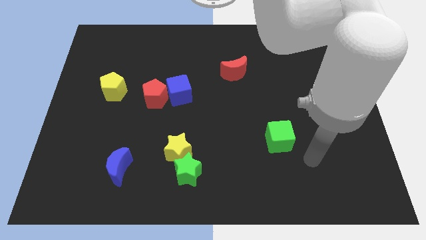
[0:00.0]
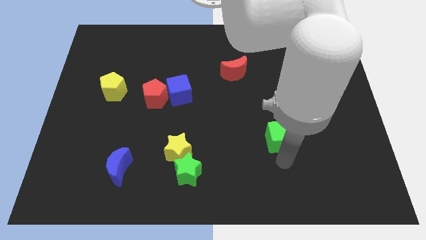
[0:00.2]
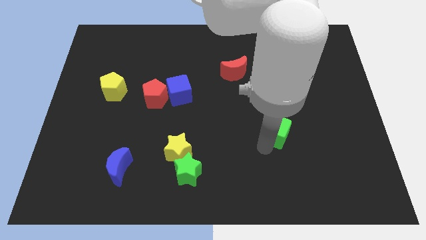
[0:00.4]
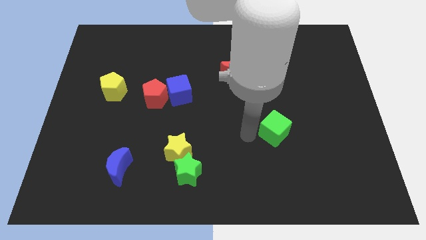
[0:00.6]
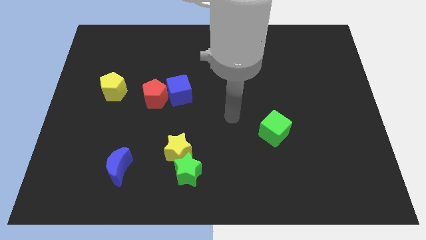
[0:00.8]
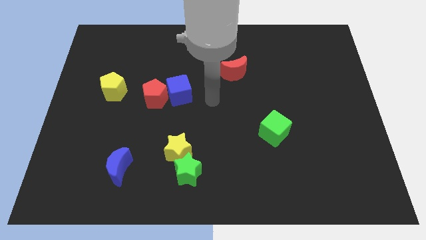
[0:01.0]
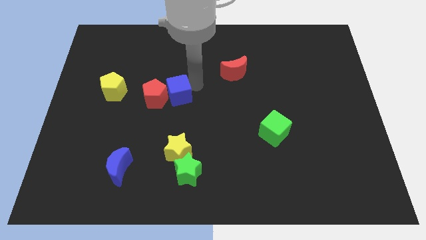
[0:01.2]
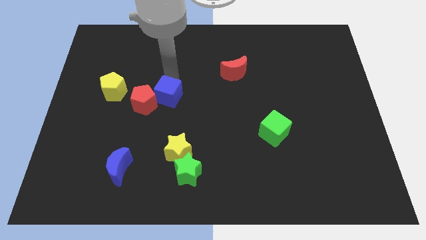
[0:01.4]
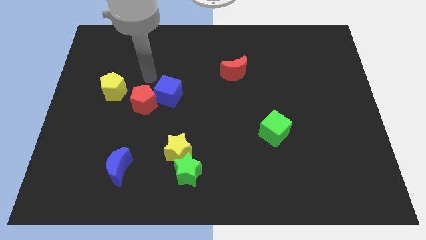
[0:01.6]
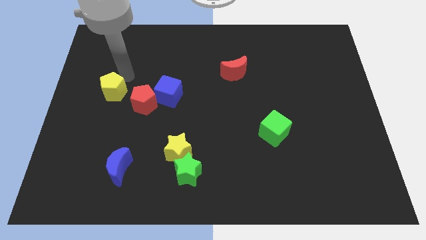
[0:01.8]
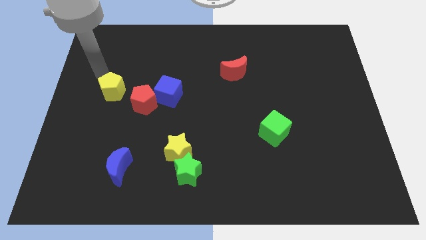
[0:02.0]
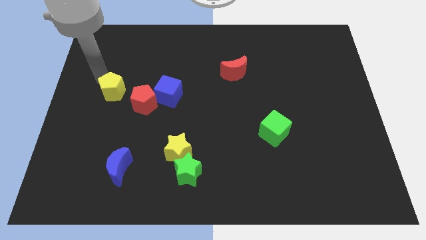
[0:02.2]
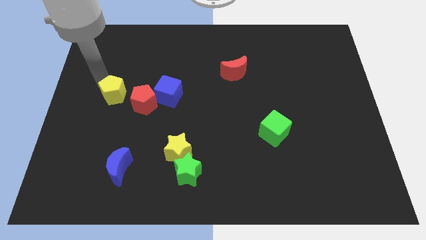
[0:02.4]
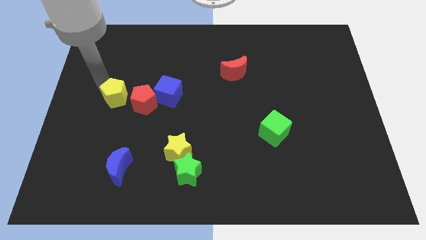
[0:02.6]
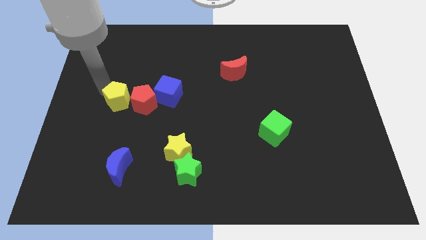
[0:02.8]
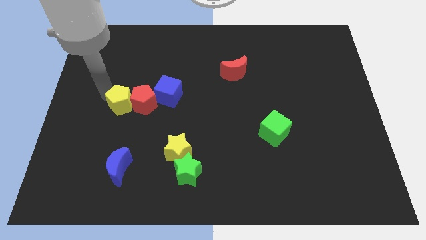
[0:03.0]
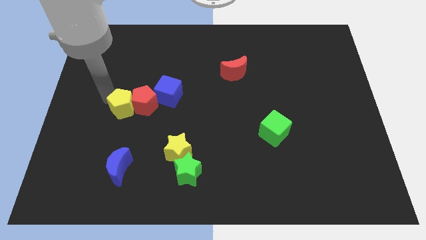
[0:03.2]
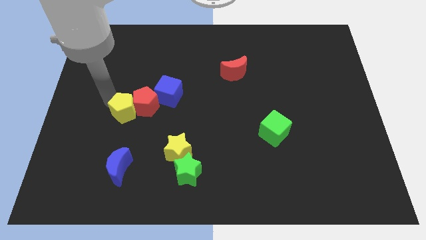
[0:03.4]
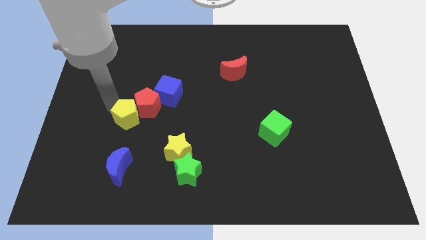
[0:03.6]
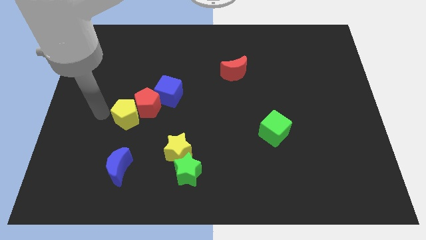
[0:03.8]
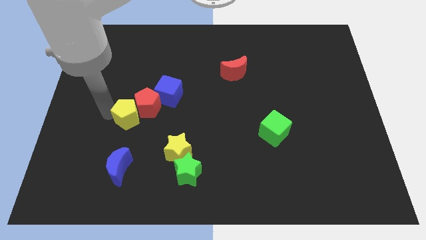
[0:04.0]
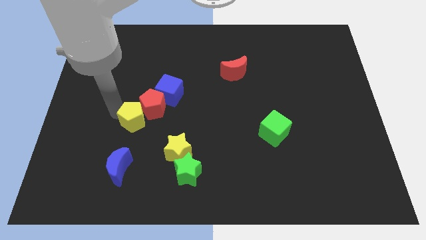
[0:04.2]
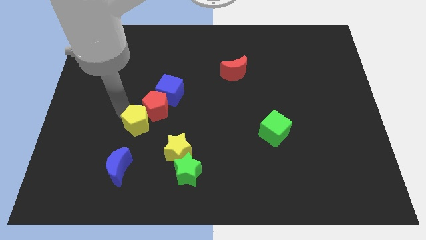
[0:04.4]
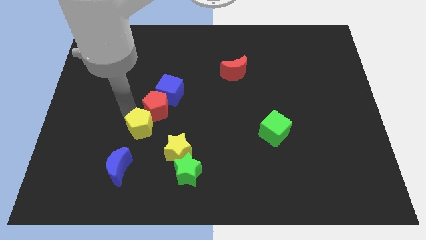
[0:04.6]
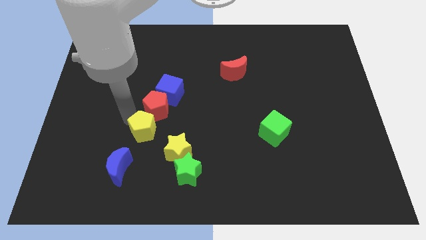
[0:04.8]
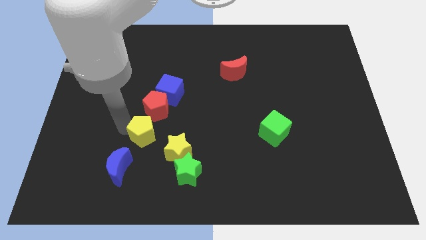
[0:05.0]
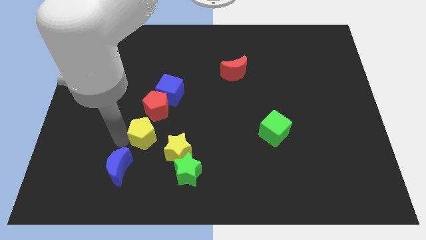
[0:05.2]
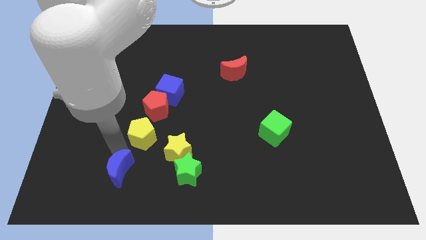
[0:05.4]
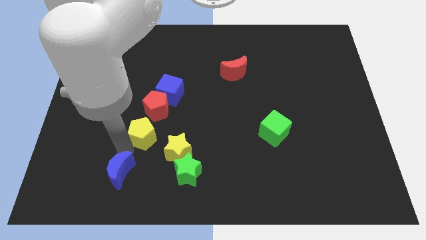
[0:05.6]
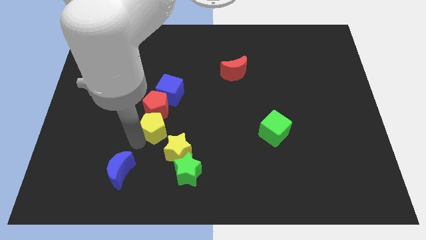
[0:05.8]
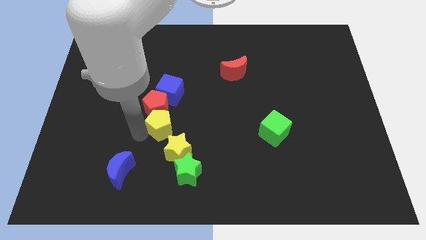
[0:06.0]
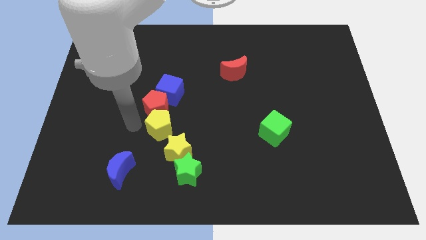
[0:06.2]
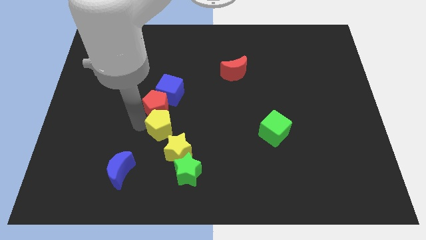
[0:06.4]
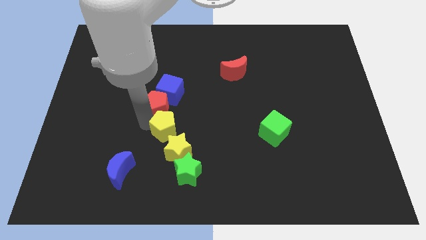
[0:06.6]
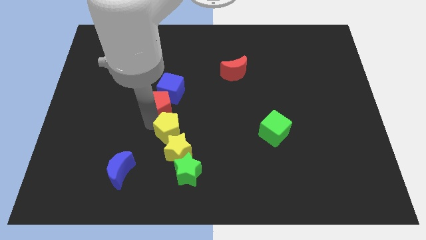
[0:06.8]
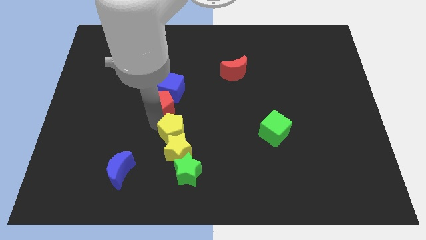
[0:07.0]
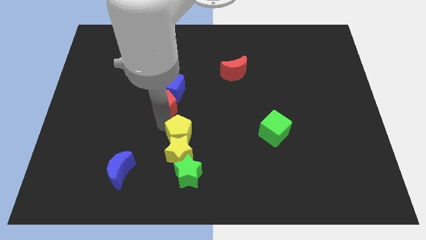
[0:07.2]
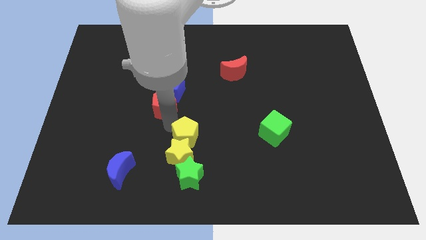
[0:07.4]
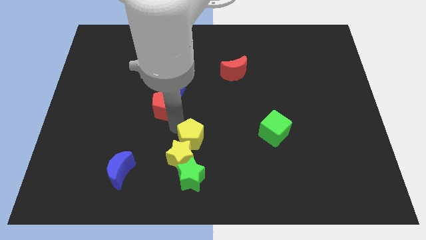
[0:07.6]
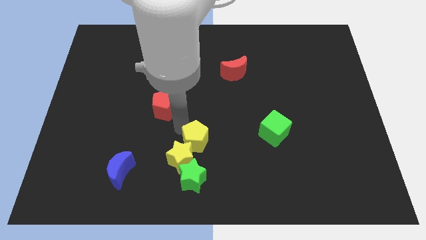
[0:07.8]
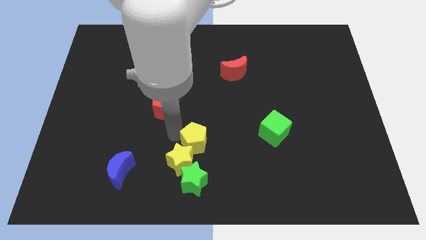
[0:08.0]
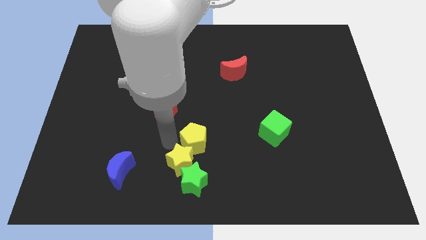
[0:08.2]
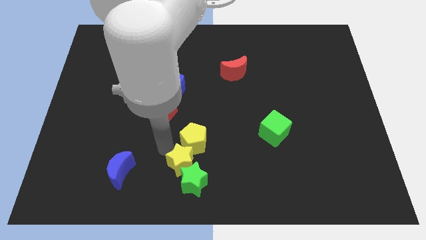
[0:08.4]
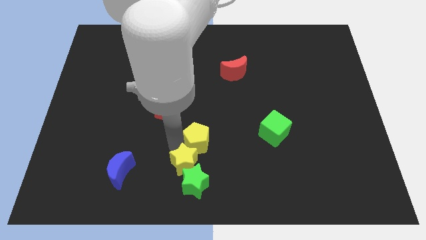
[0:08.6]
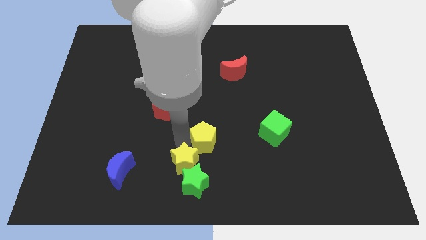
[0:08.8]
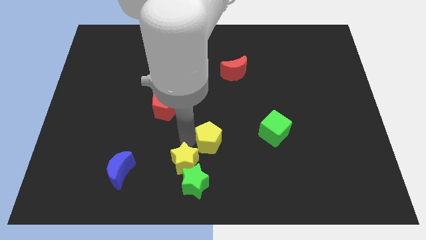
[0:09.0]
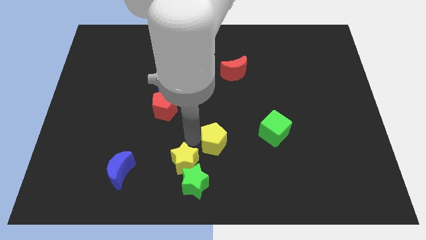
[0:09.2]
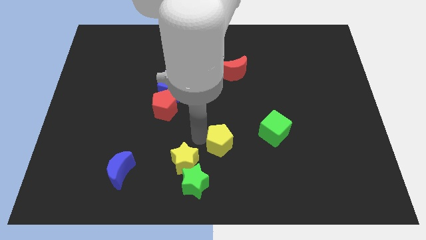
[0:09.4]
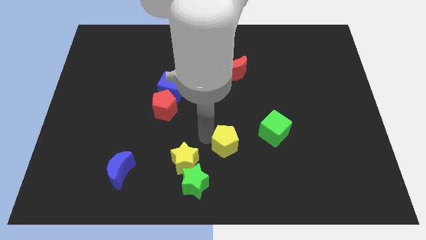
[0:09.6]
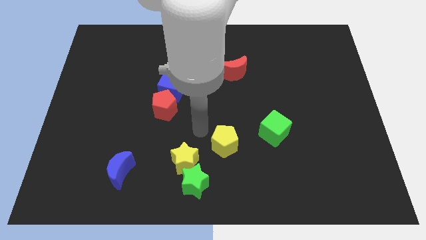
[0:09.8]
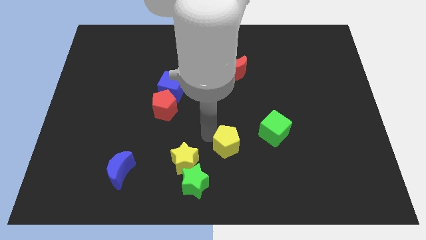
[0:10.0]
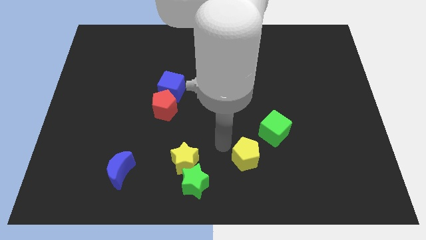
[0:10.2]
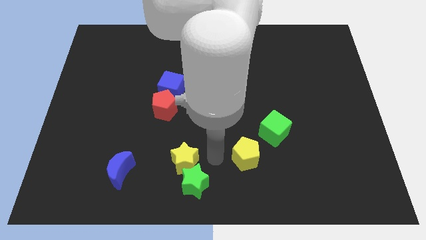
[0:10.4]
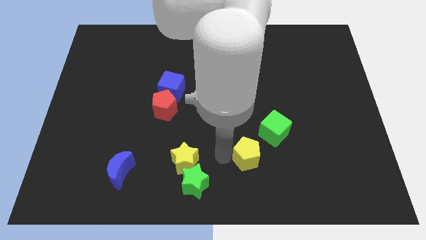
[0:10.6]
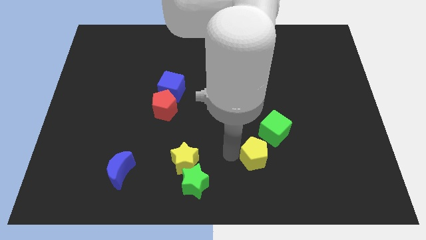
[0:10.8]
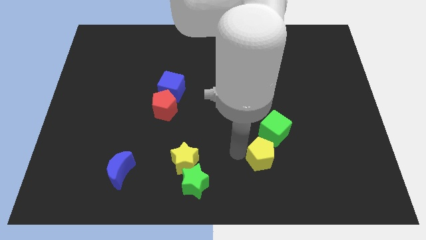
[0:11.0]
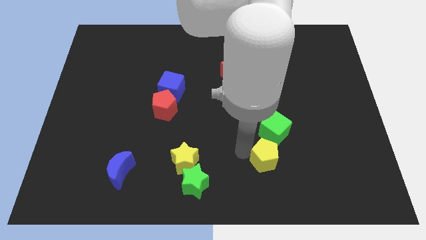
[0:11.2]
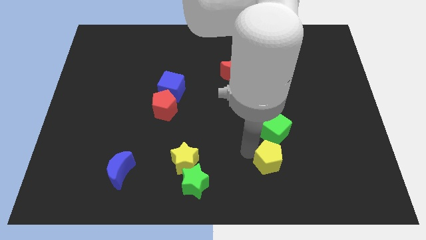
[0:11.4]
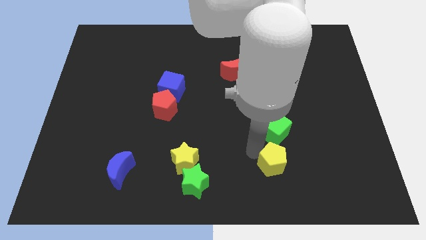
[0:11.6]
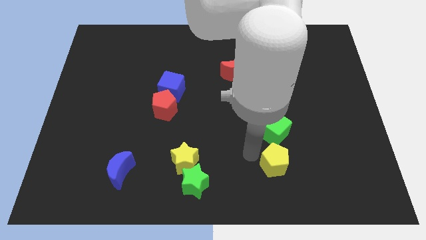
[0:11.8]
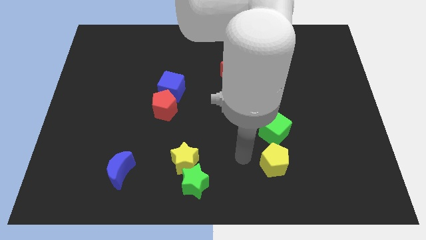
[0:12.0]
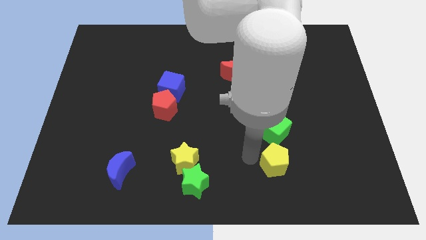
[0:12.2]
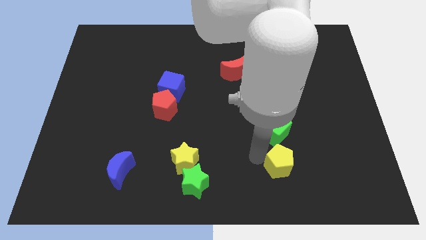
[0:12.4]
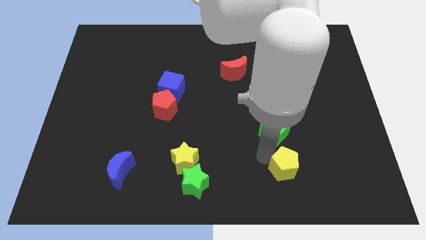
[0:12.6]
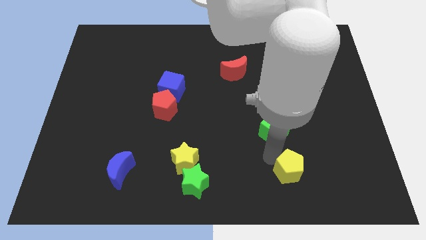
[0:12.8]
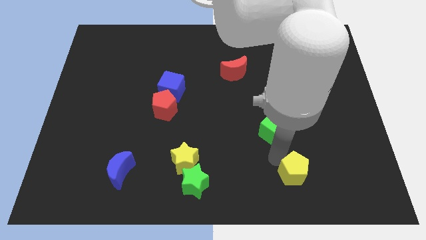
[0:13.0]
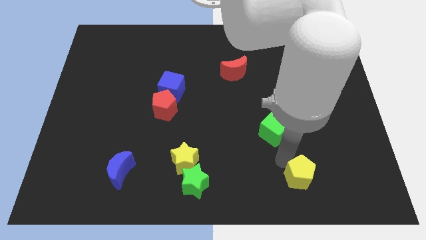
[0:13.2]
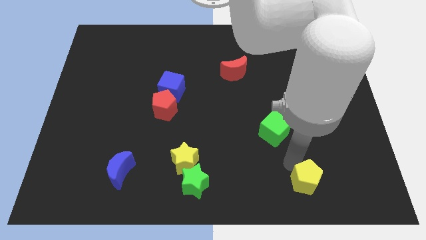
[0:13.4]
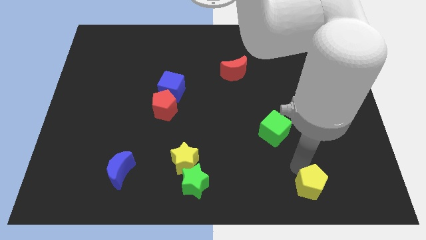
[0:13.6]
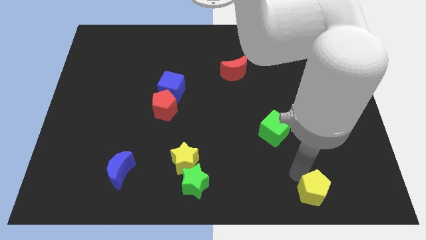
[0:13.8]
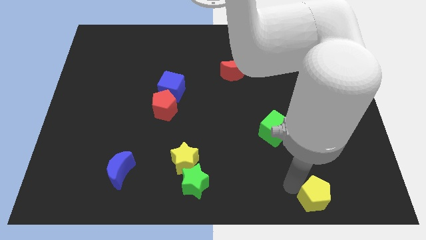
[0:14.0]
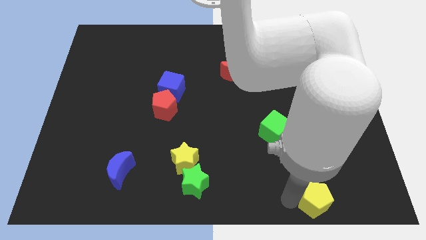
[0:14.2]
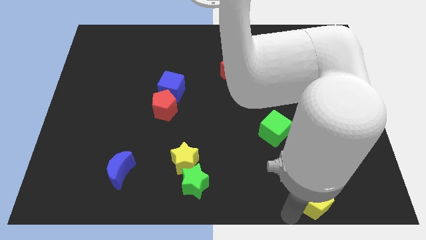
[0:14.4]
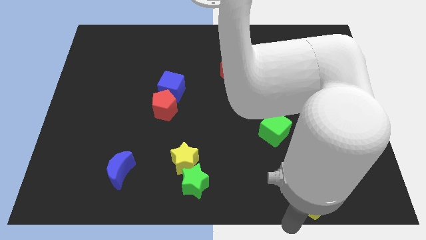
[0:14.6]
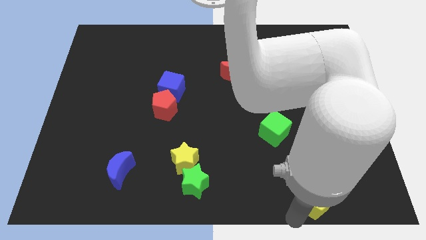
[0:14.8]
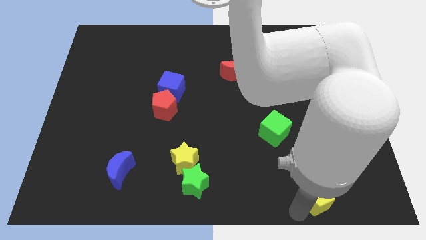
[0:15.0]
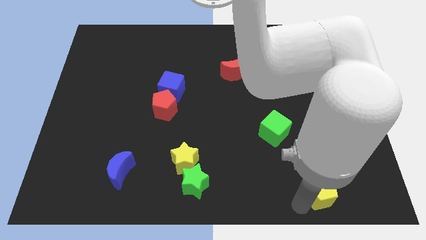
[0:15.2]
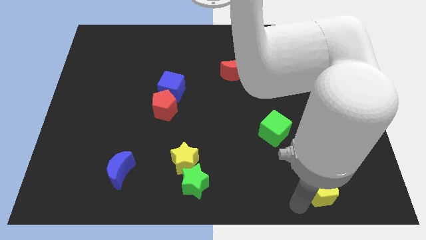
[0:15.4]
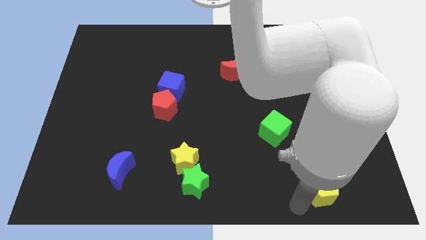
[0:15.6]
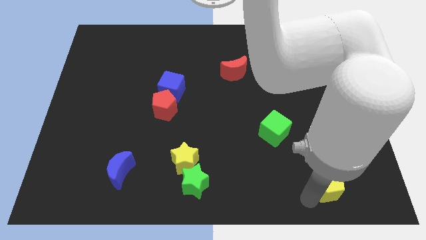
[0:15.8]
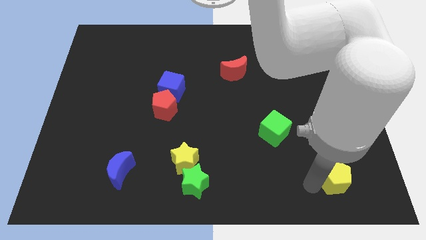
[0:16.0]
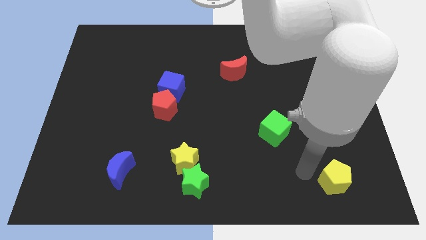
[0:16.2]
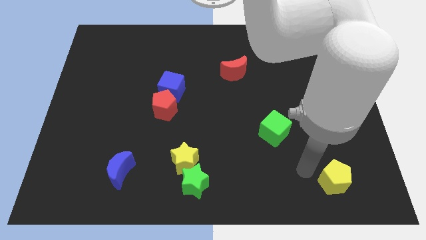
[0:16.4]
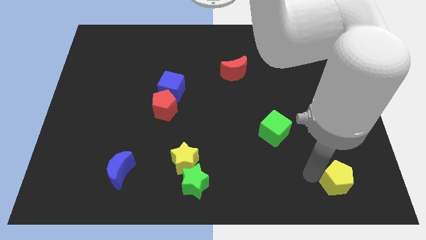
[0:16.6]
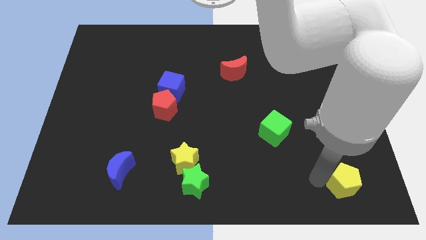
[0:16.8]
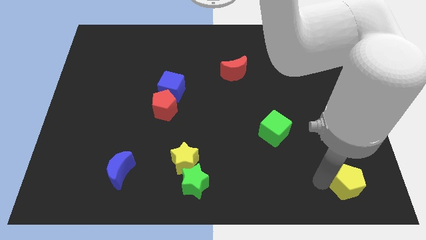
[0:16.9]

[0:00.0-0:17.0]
push the yellow pentagon to the lower right corner
